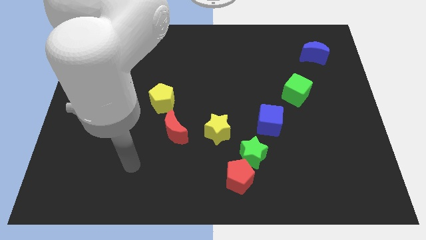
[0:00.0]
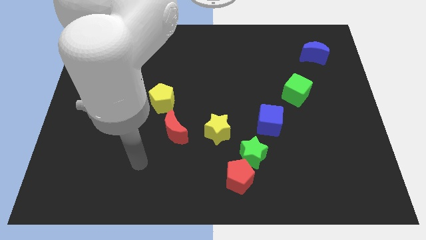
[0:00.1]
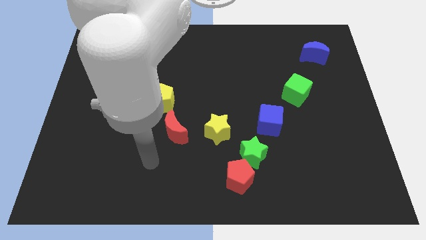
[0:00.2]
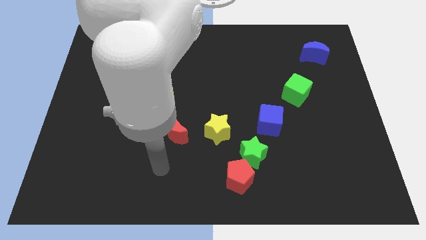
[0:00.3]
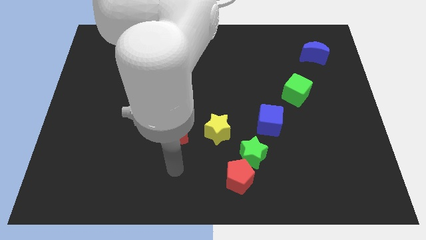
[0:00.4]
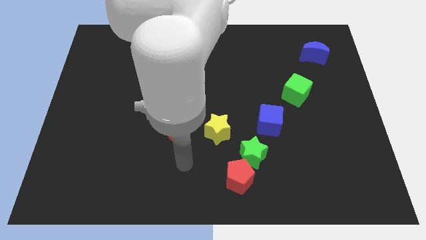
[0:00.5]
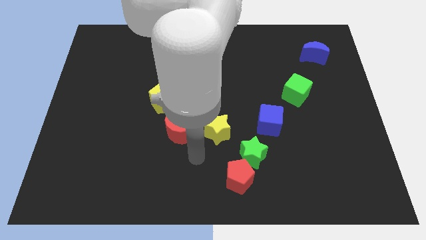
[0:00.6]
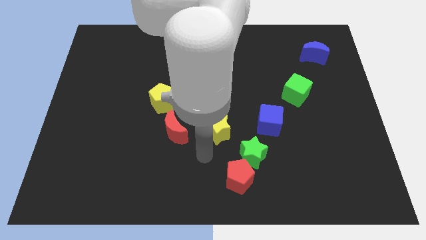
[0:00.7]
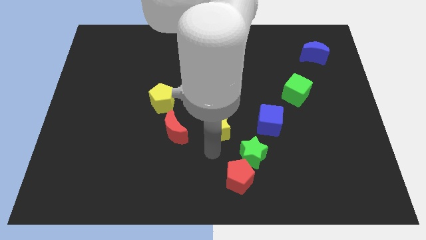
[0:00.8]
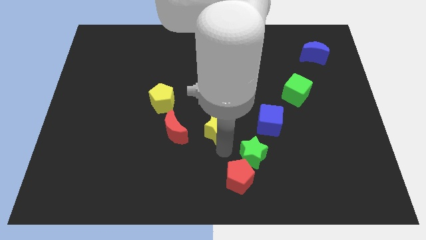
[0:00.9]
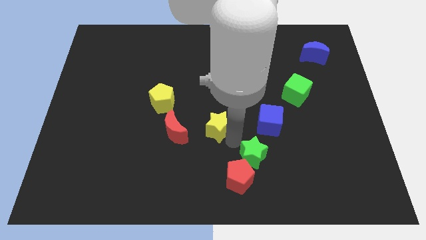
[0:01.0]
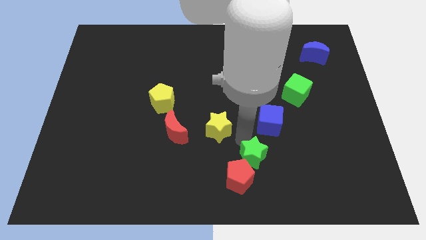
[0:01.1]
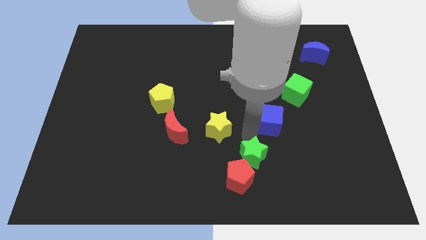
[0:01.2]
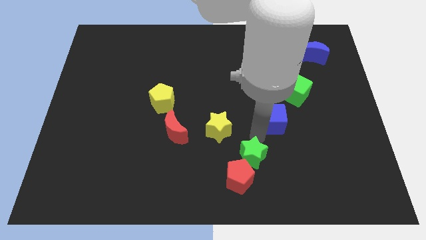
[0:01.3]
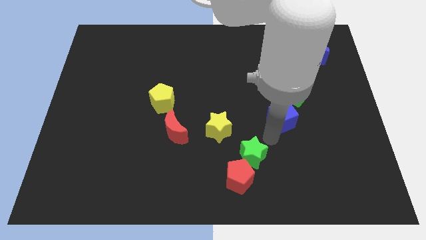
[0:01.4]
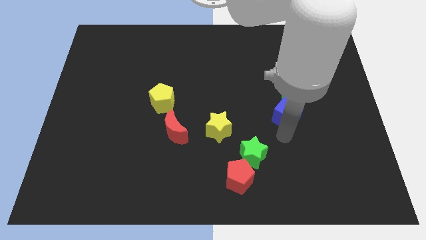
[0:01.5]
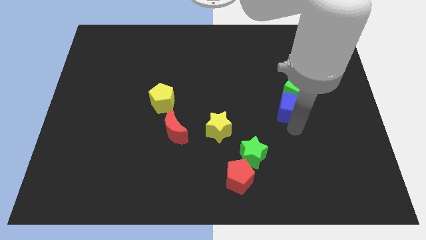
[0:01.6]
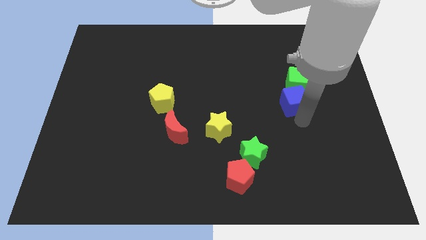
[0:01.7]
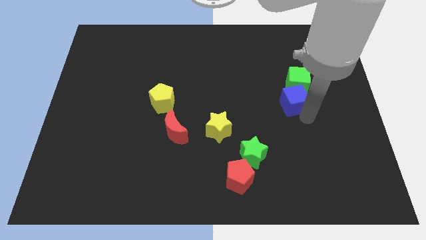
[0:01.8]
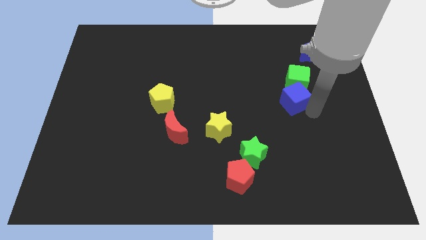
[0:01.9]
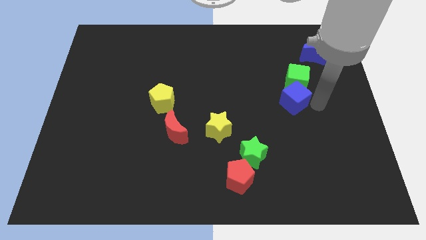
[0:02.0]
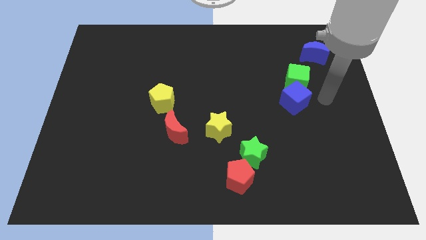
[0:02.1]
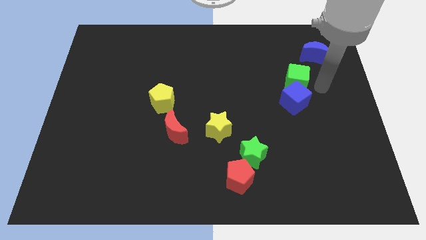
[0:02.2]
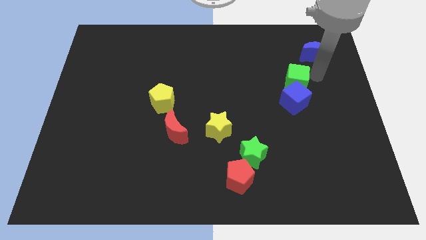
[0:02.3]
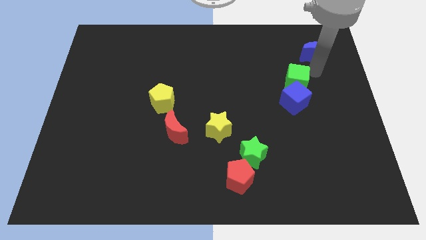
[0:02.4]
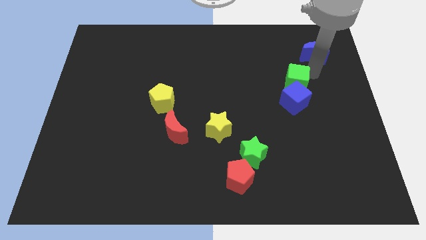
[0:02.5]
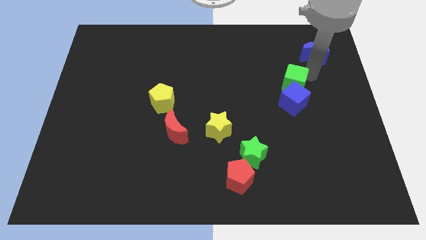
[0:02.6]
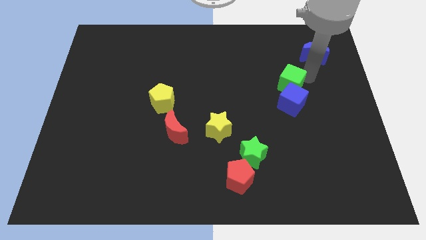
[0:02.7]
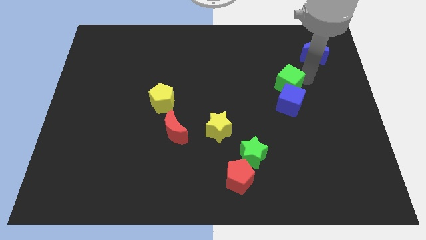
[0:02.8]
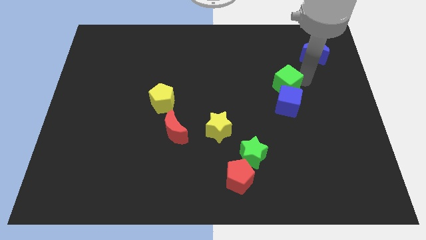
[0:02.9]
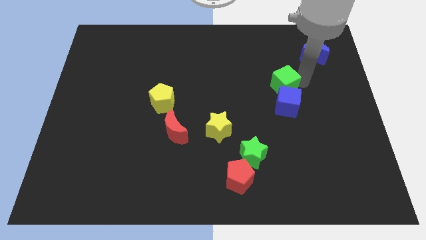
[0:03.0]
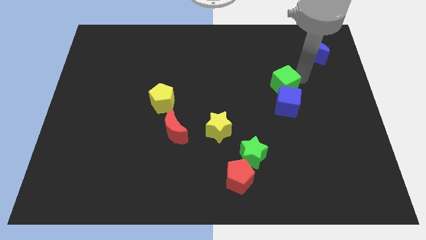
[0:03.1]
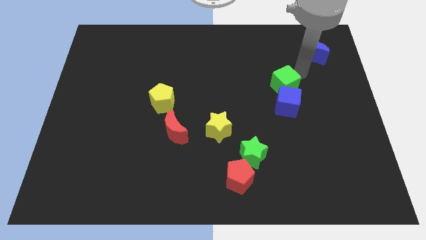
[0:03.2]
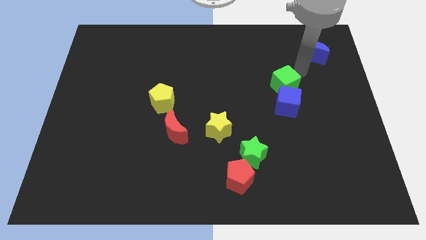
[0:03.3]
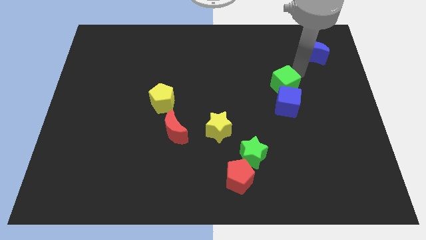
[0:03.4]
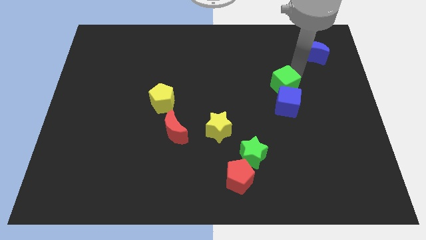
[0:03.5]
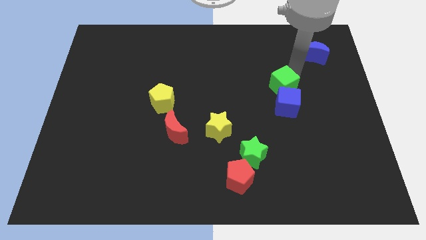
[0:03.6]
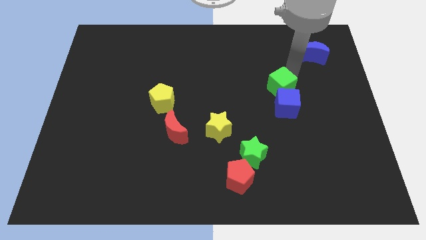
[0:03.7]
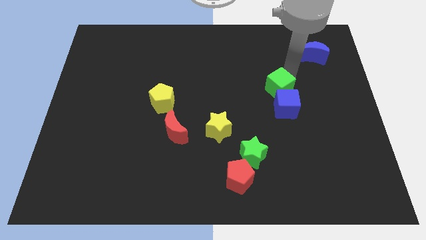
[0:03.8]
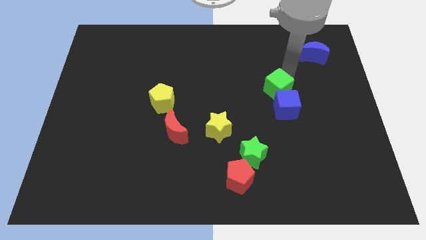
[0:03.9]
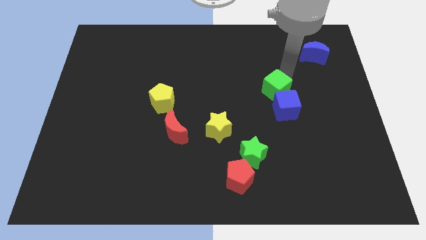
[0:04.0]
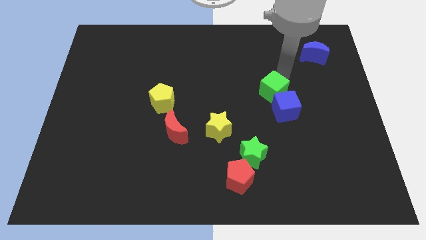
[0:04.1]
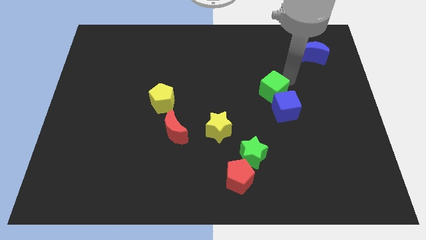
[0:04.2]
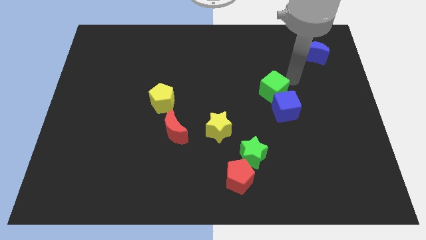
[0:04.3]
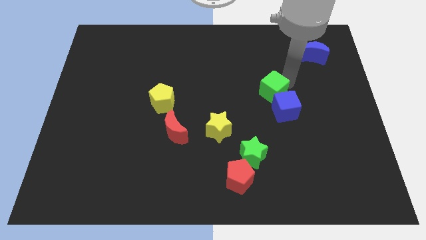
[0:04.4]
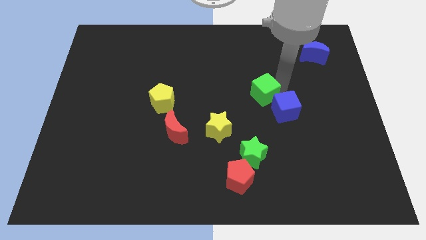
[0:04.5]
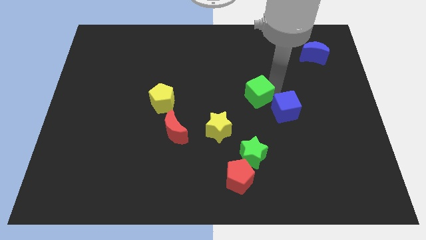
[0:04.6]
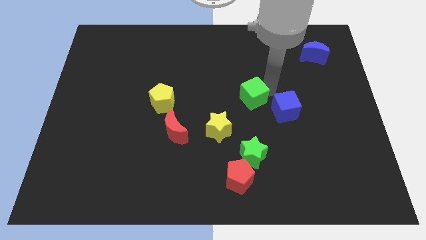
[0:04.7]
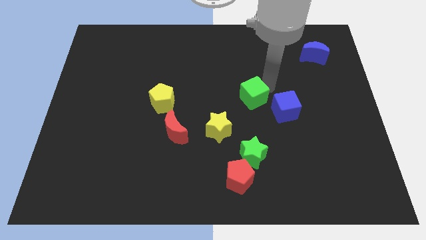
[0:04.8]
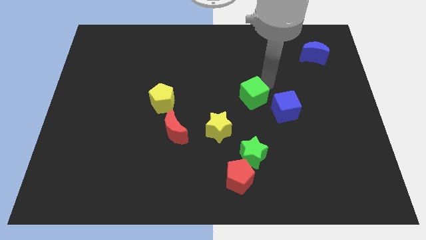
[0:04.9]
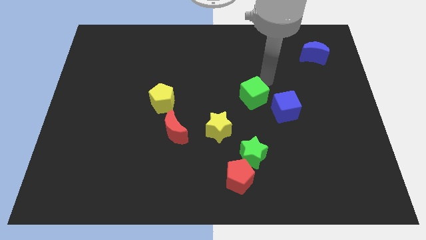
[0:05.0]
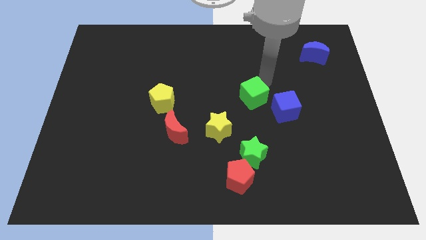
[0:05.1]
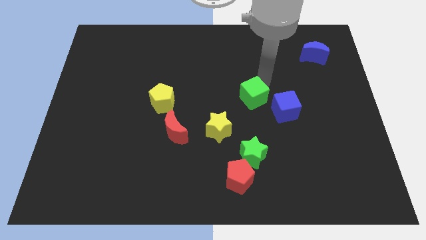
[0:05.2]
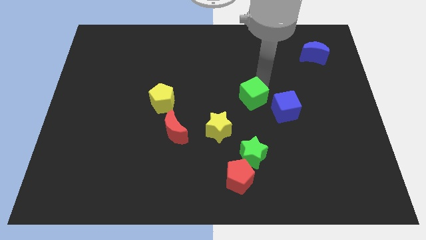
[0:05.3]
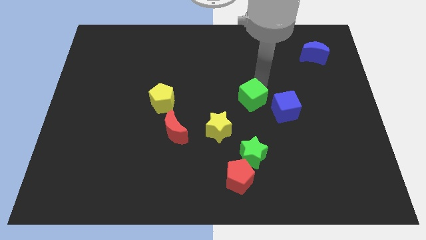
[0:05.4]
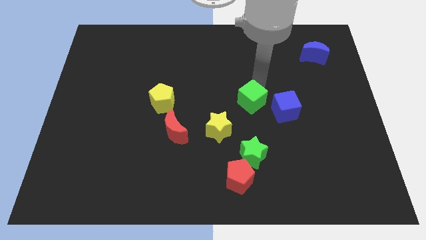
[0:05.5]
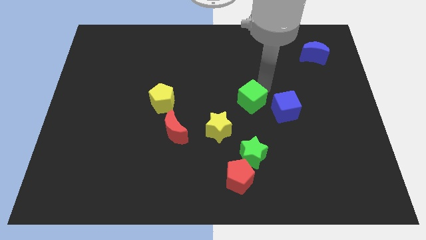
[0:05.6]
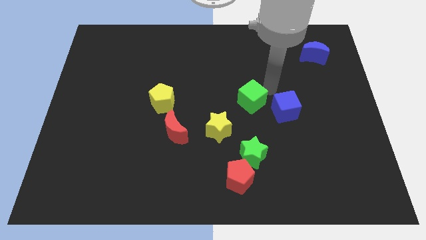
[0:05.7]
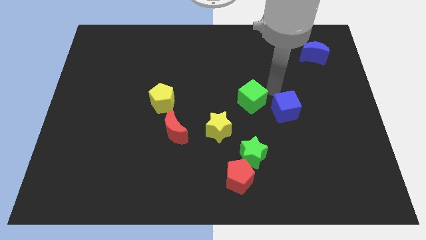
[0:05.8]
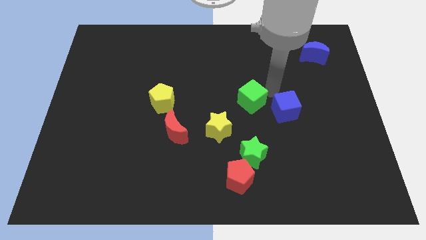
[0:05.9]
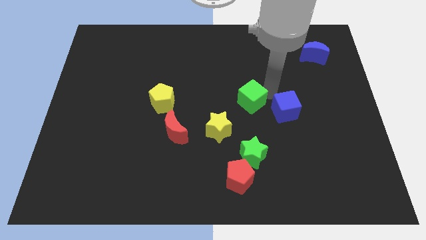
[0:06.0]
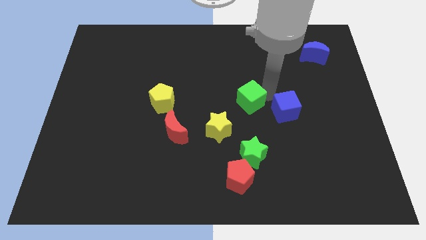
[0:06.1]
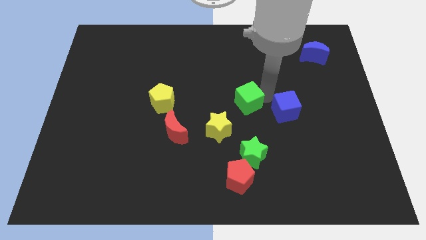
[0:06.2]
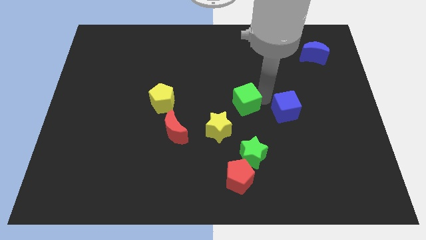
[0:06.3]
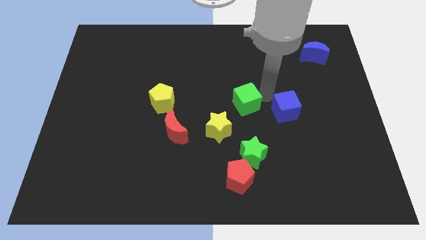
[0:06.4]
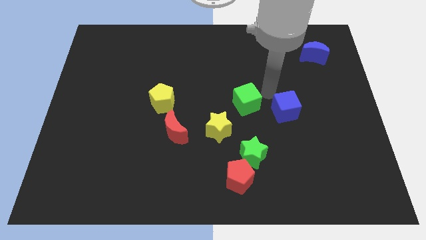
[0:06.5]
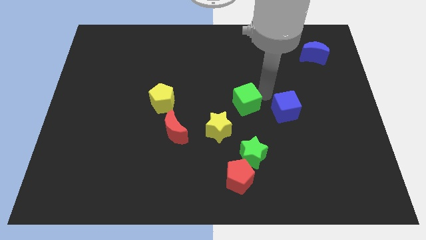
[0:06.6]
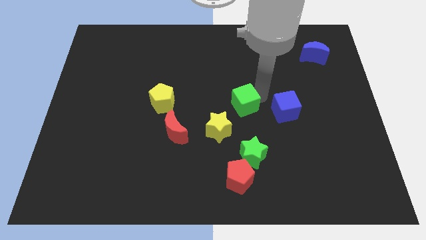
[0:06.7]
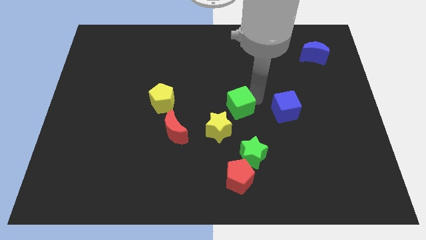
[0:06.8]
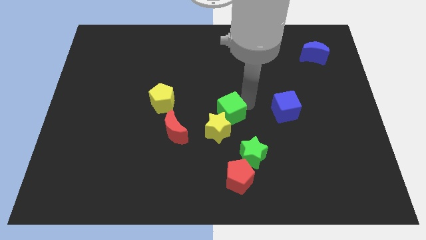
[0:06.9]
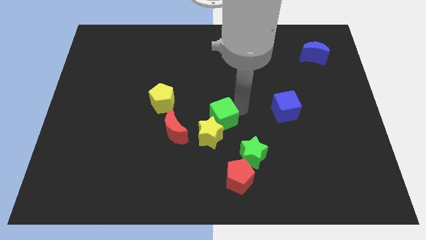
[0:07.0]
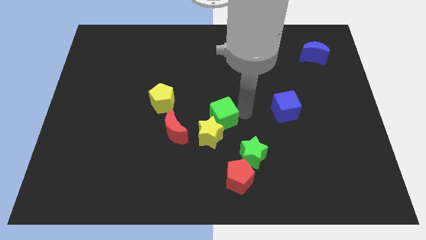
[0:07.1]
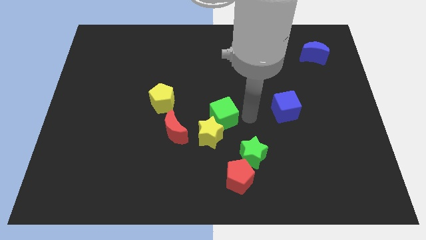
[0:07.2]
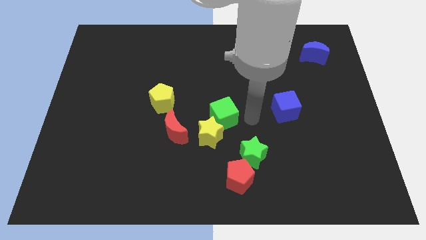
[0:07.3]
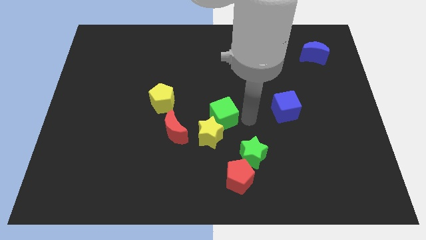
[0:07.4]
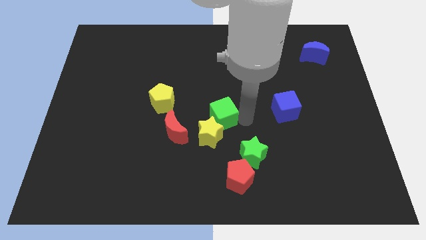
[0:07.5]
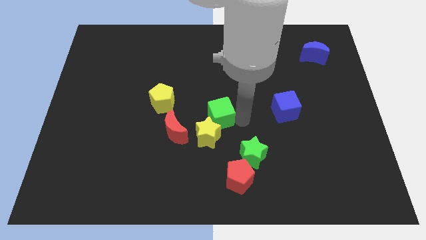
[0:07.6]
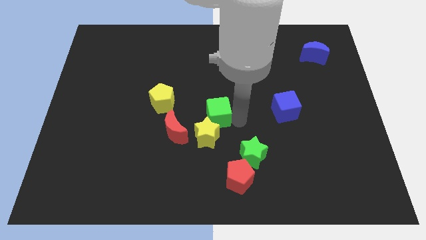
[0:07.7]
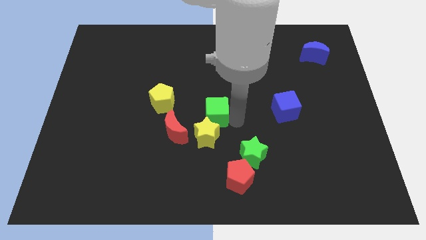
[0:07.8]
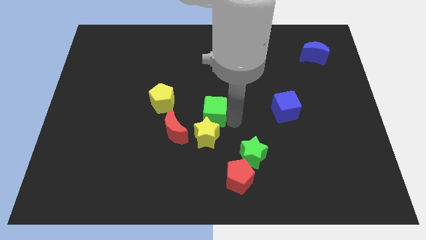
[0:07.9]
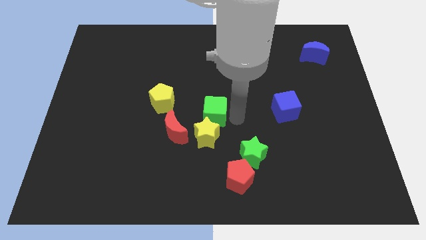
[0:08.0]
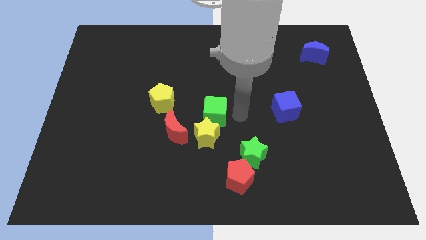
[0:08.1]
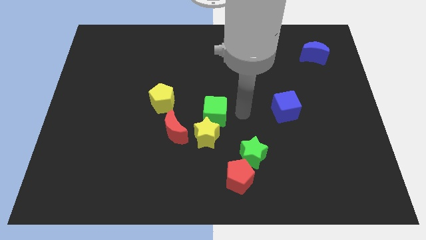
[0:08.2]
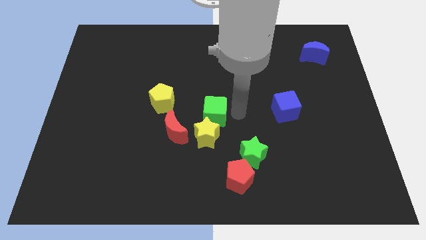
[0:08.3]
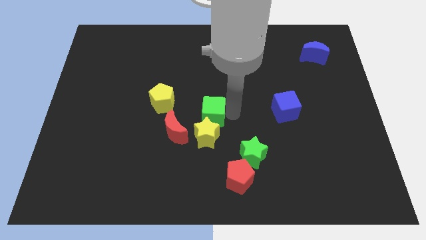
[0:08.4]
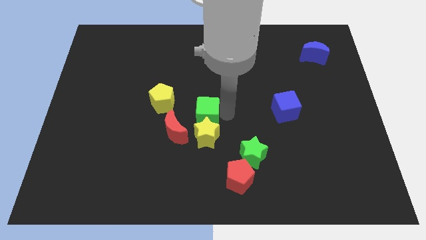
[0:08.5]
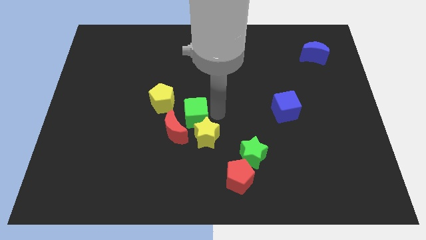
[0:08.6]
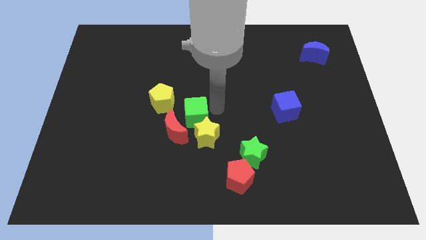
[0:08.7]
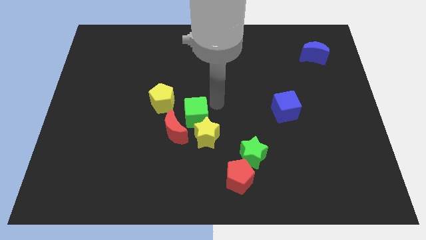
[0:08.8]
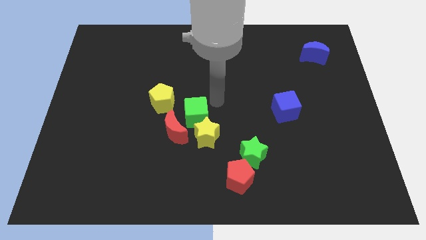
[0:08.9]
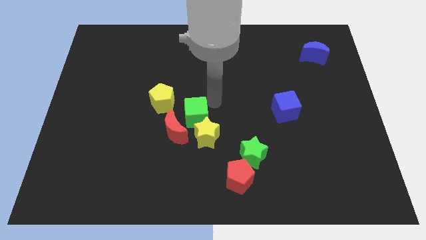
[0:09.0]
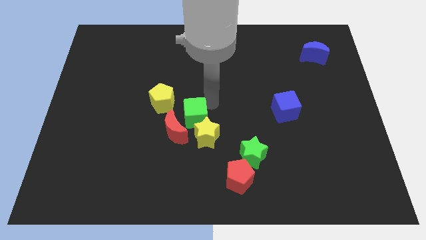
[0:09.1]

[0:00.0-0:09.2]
slide the green cube close to the red moon
